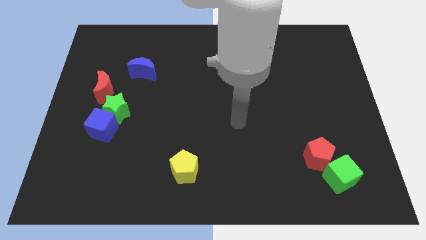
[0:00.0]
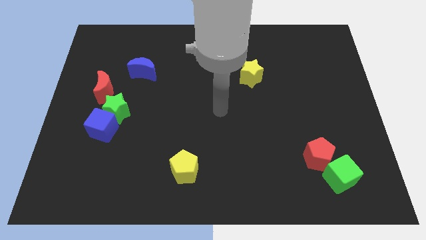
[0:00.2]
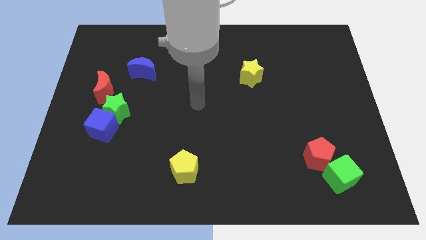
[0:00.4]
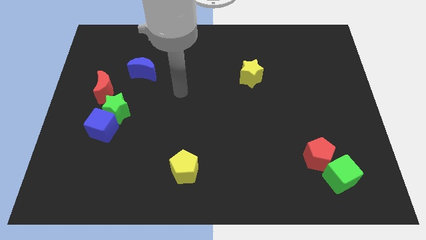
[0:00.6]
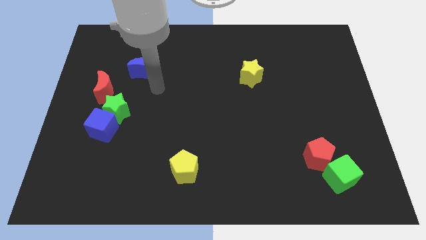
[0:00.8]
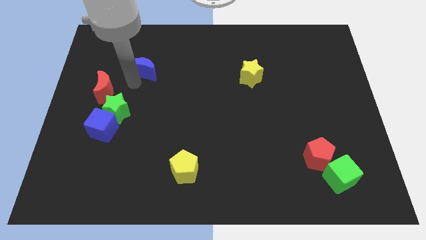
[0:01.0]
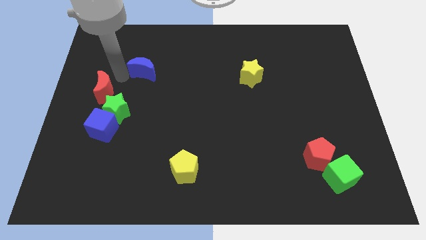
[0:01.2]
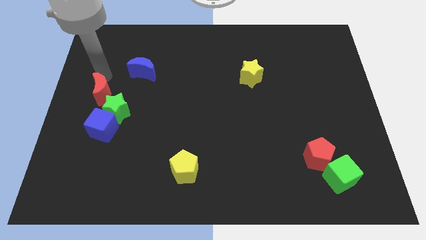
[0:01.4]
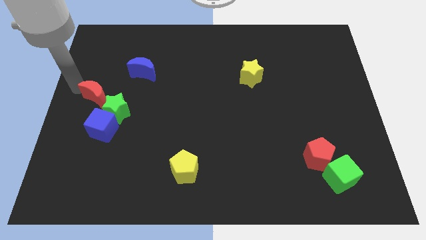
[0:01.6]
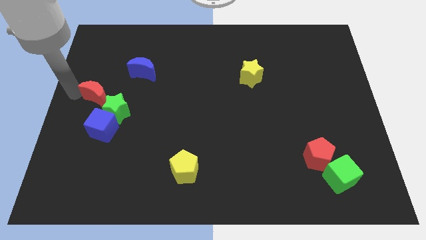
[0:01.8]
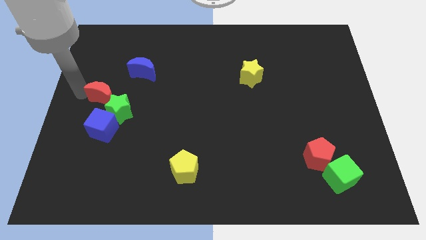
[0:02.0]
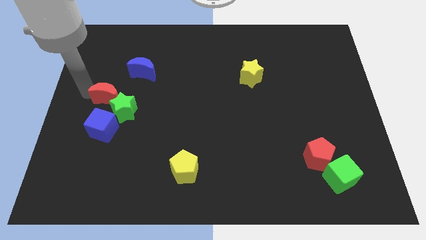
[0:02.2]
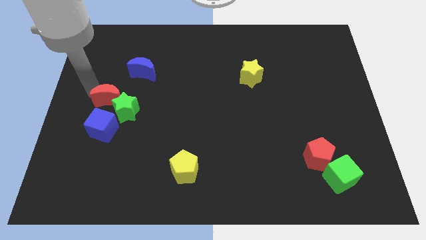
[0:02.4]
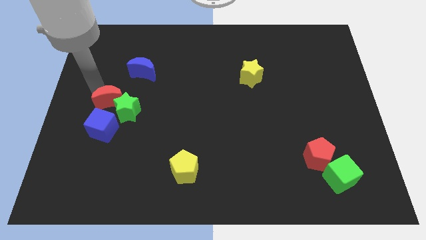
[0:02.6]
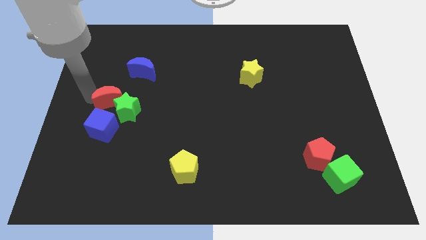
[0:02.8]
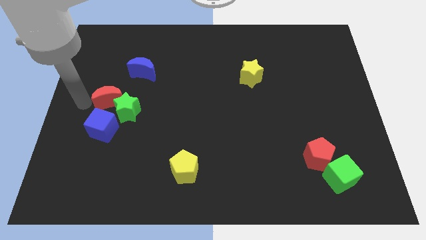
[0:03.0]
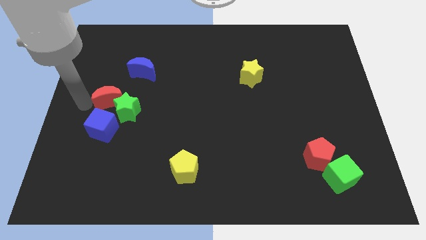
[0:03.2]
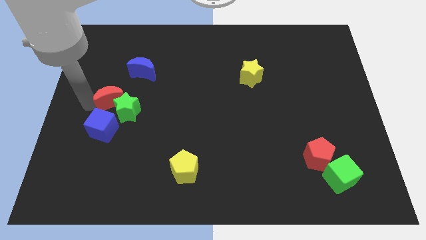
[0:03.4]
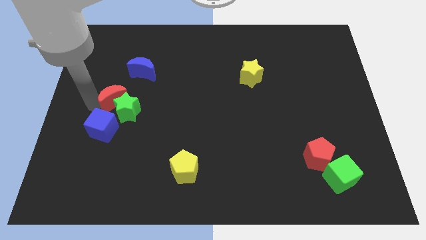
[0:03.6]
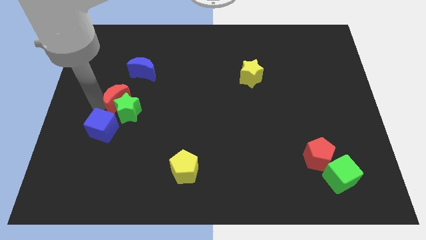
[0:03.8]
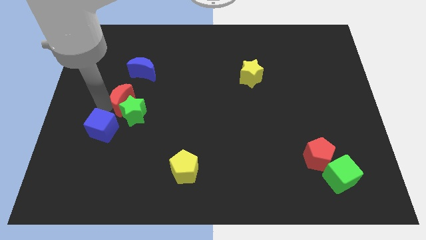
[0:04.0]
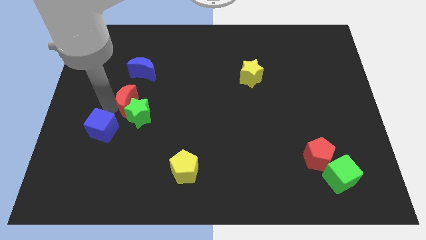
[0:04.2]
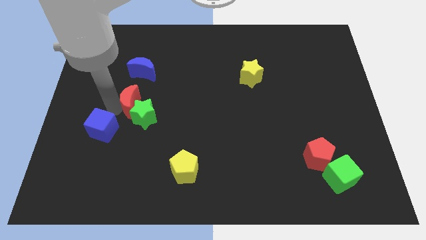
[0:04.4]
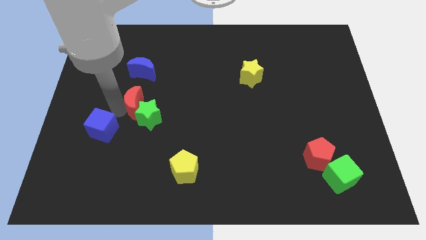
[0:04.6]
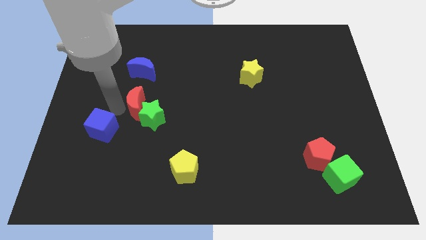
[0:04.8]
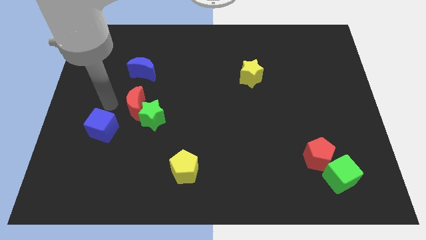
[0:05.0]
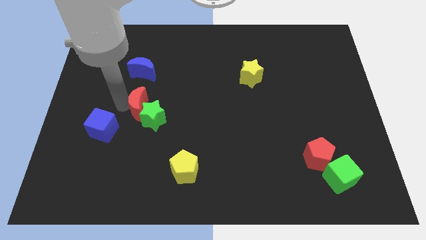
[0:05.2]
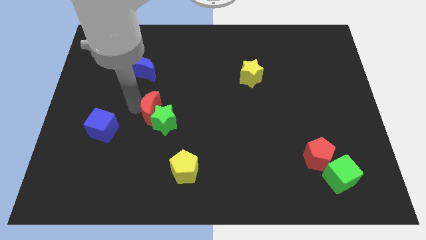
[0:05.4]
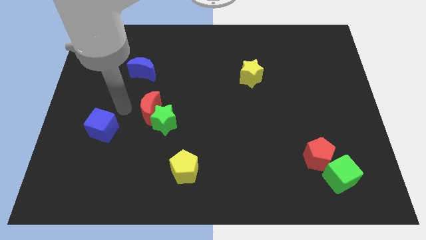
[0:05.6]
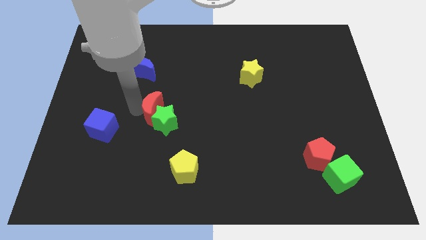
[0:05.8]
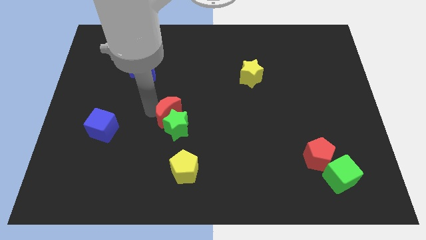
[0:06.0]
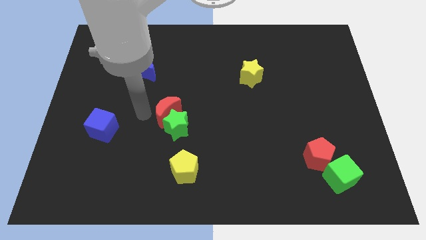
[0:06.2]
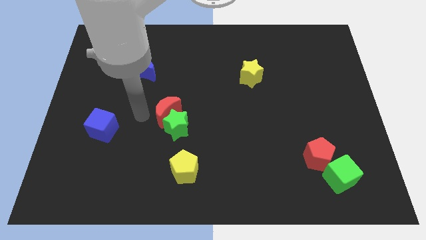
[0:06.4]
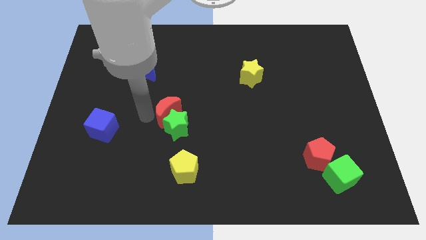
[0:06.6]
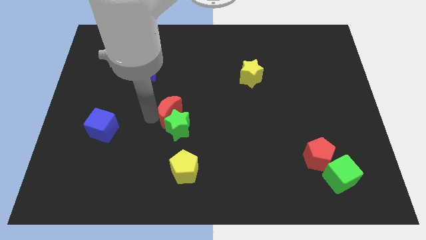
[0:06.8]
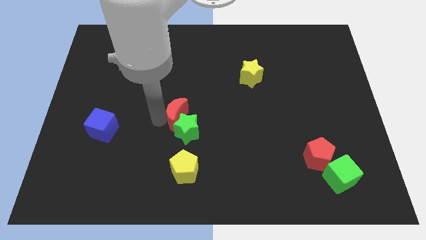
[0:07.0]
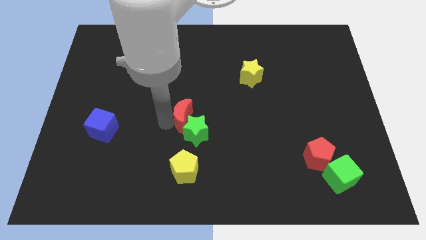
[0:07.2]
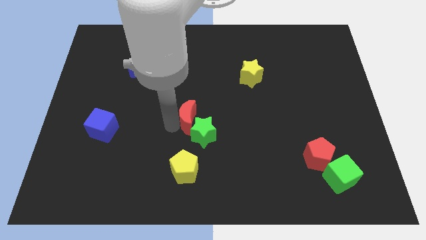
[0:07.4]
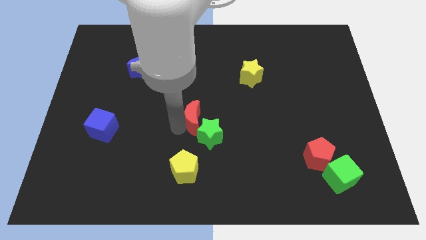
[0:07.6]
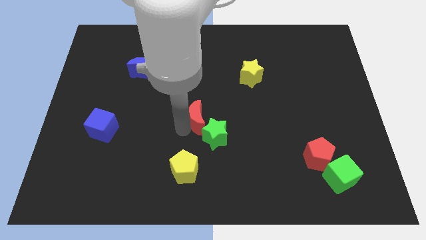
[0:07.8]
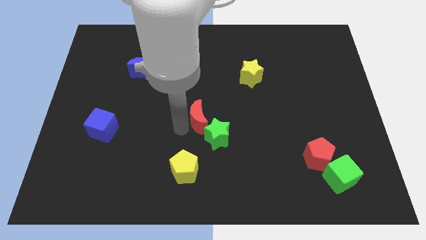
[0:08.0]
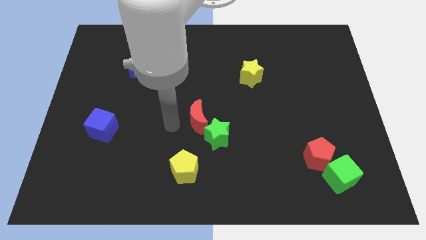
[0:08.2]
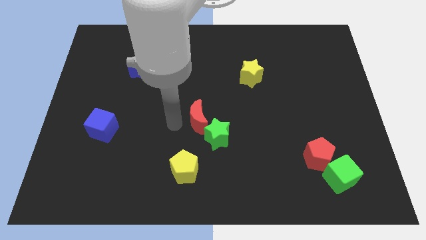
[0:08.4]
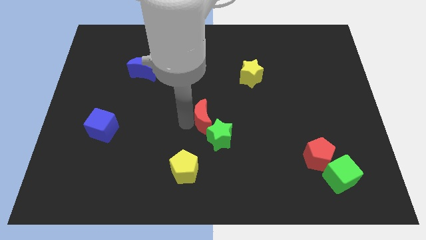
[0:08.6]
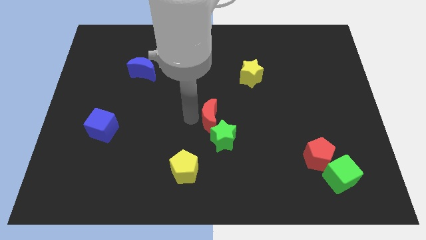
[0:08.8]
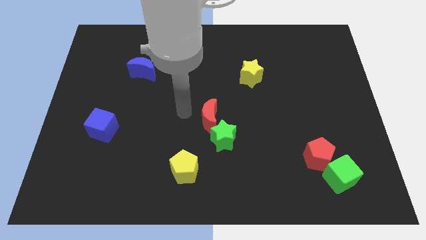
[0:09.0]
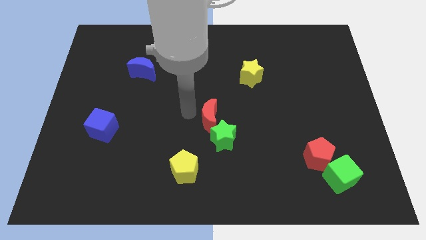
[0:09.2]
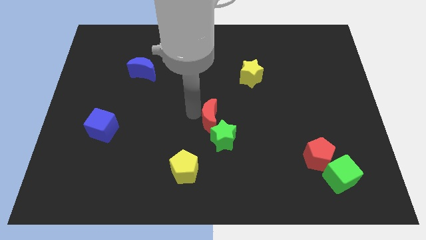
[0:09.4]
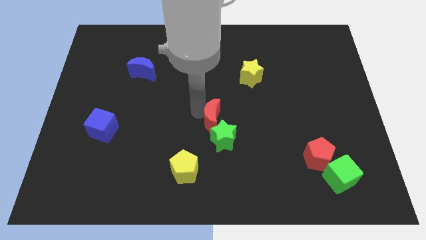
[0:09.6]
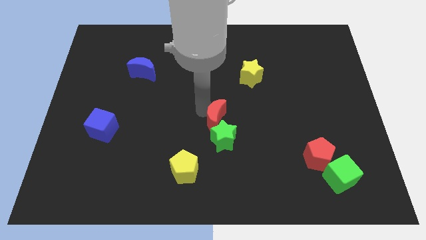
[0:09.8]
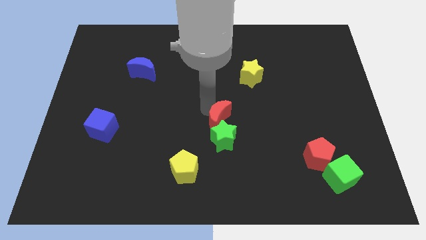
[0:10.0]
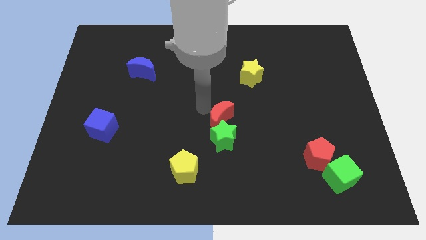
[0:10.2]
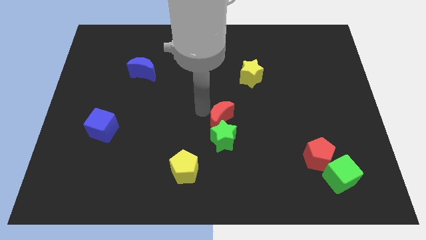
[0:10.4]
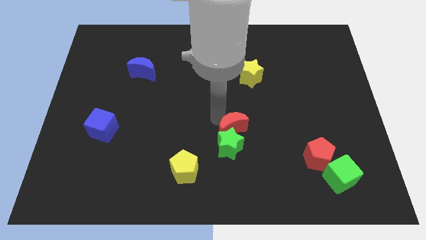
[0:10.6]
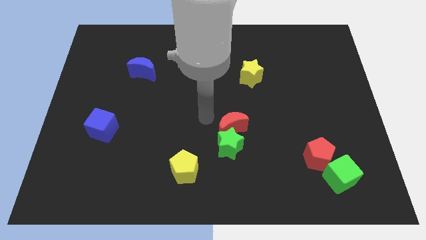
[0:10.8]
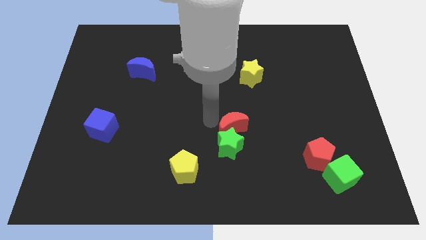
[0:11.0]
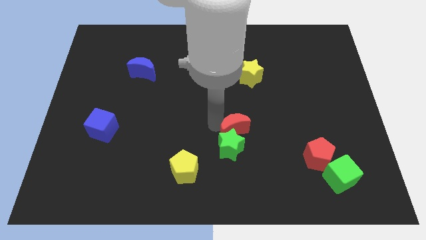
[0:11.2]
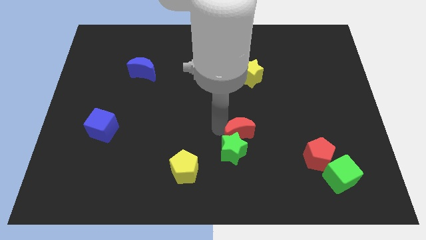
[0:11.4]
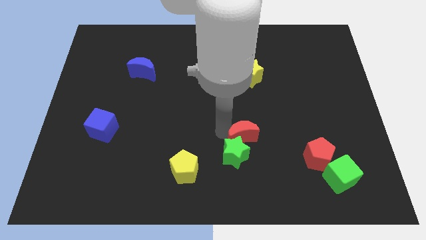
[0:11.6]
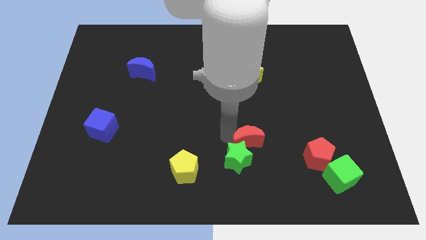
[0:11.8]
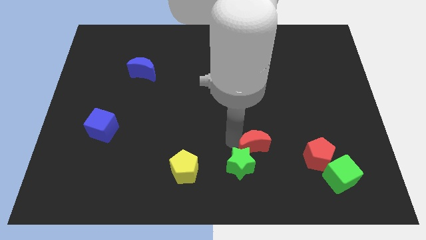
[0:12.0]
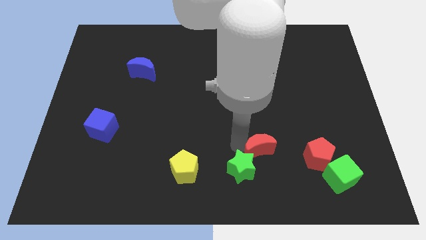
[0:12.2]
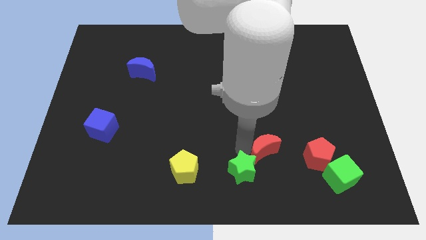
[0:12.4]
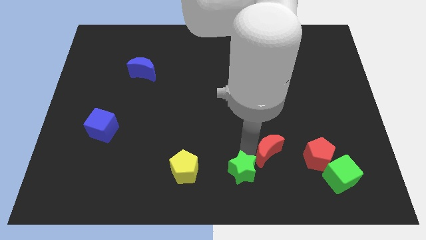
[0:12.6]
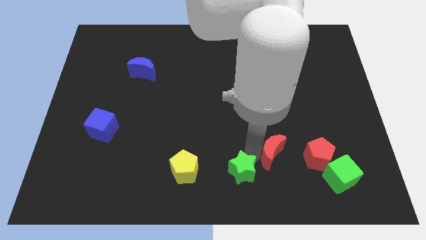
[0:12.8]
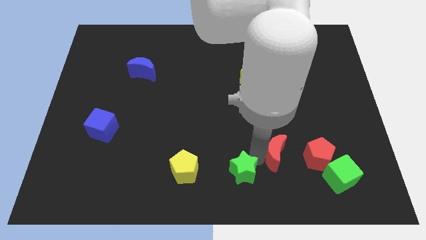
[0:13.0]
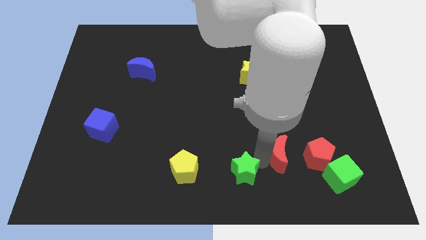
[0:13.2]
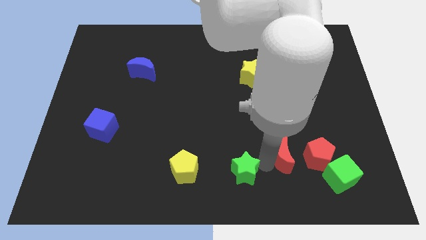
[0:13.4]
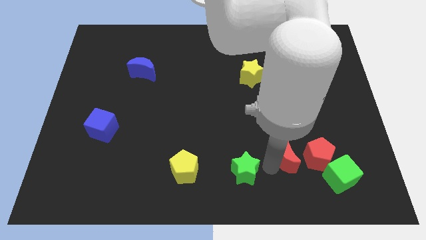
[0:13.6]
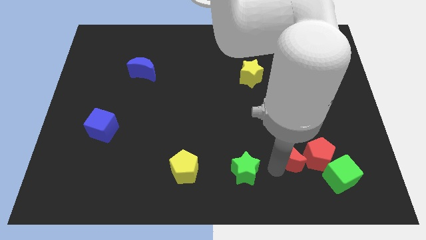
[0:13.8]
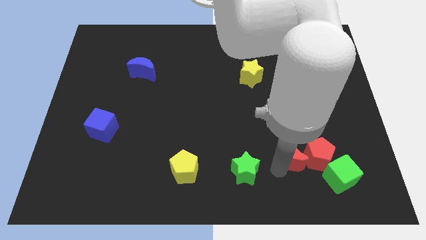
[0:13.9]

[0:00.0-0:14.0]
push the red moon towards the red pentagon
